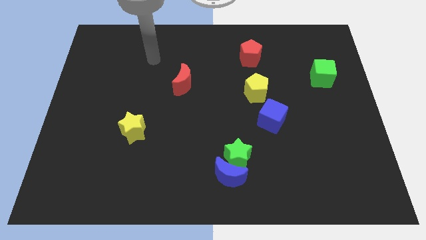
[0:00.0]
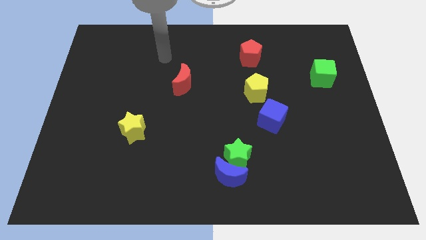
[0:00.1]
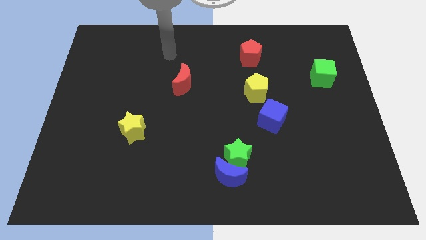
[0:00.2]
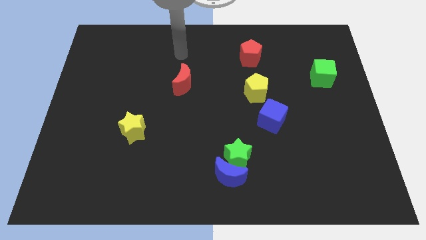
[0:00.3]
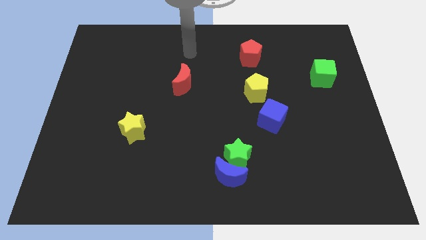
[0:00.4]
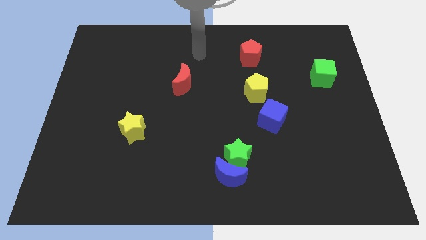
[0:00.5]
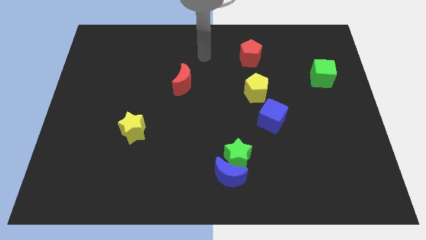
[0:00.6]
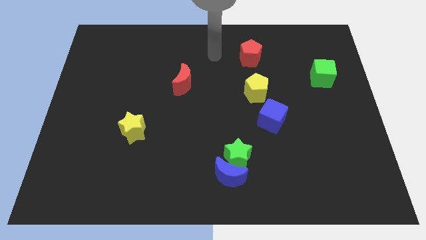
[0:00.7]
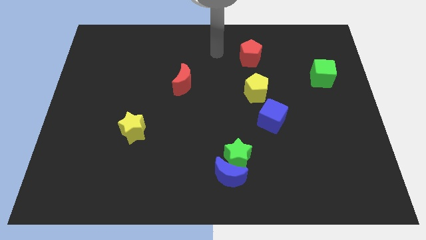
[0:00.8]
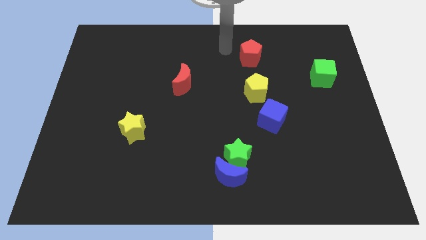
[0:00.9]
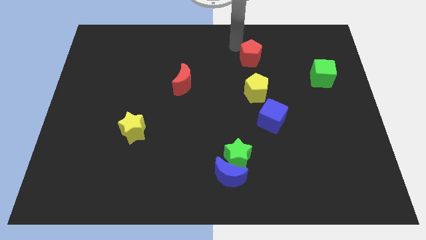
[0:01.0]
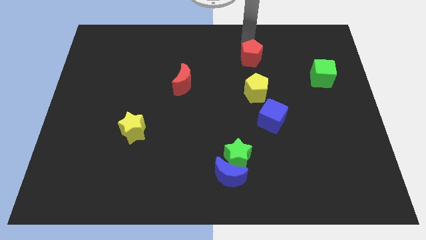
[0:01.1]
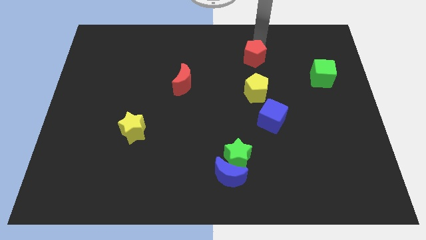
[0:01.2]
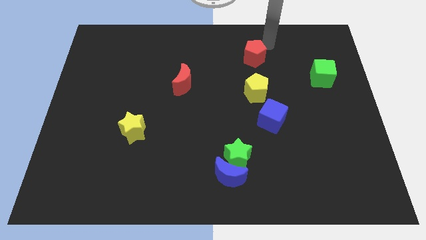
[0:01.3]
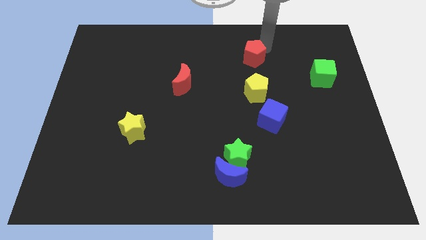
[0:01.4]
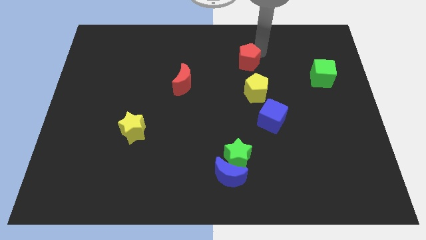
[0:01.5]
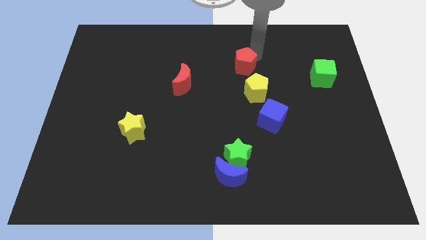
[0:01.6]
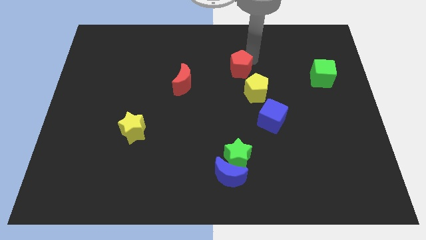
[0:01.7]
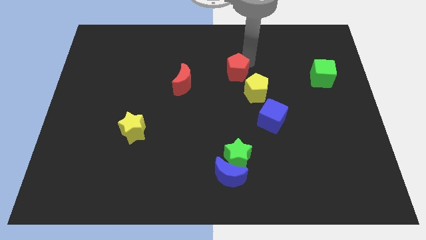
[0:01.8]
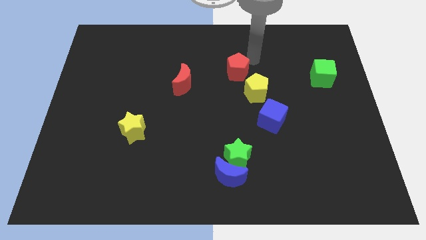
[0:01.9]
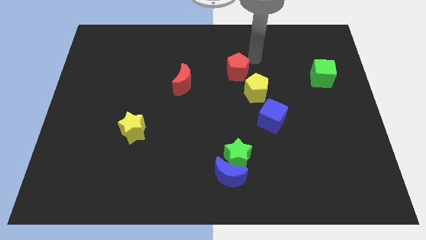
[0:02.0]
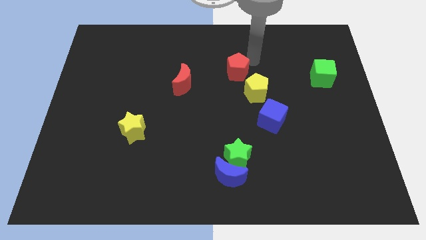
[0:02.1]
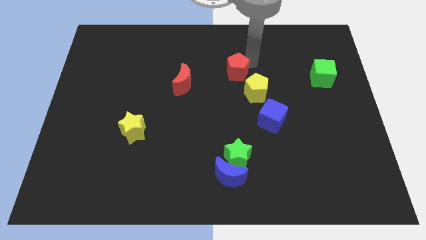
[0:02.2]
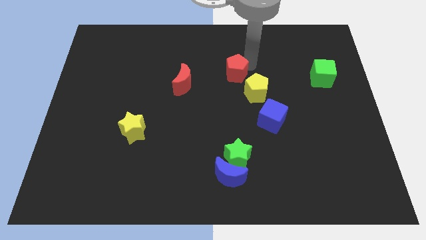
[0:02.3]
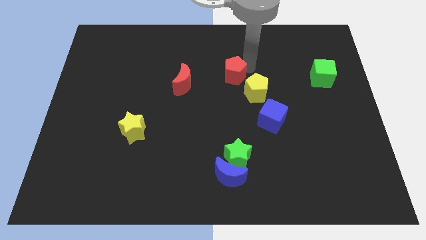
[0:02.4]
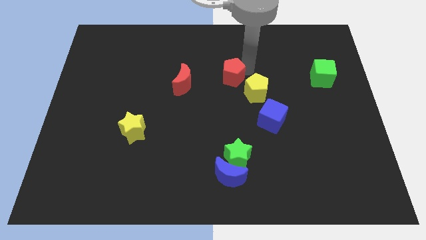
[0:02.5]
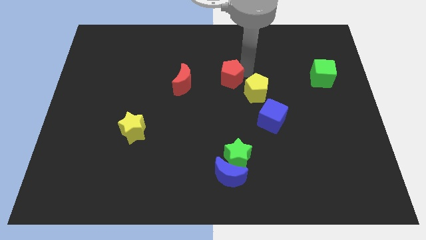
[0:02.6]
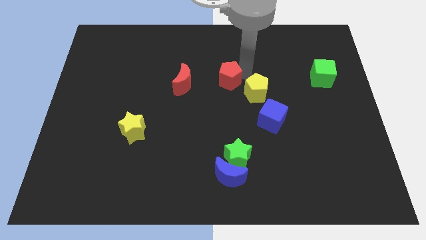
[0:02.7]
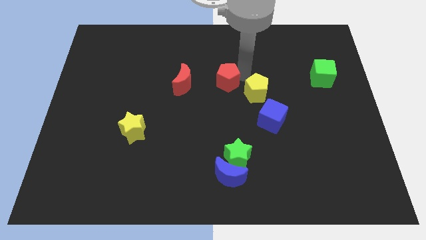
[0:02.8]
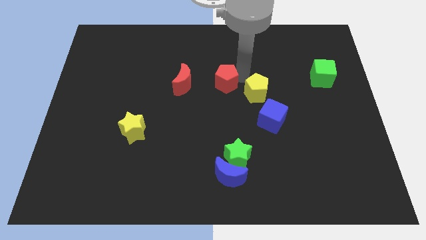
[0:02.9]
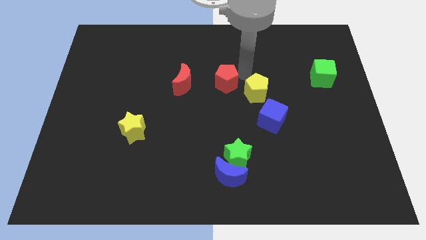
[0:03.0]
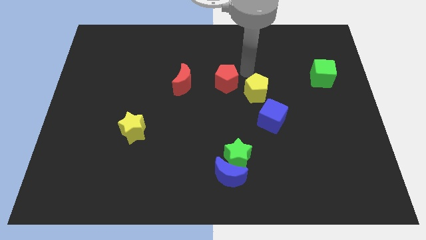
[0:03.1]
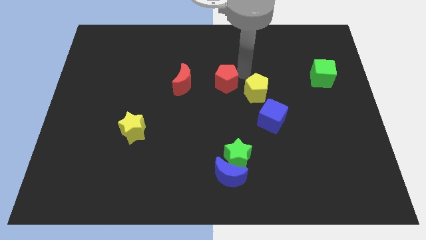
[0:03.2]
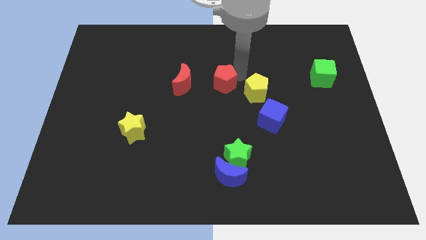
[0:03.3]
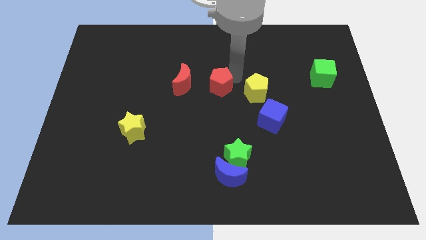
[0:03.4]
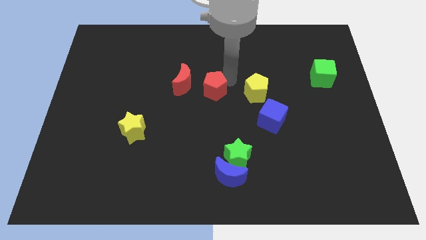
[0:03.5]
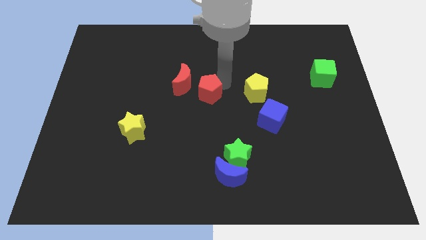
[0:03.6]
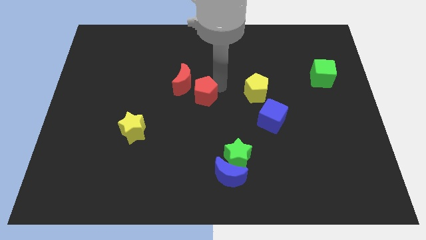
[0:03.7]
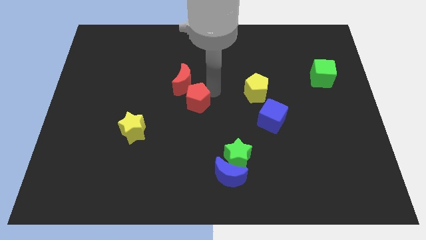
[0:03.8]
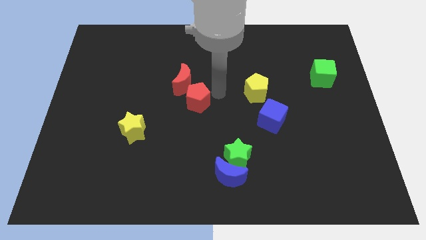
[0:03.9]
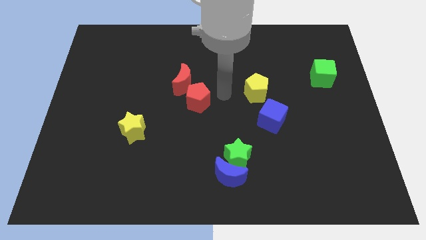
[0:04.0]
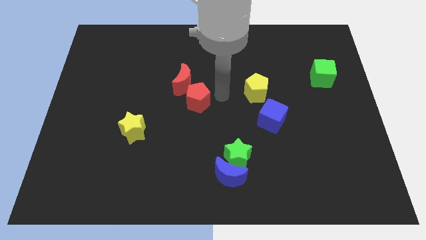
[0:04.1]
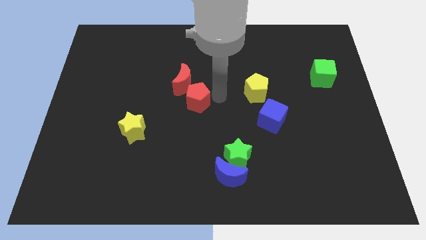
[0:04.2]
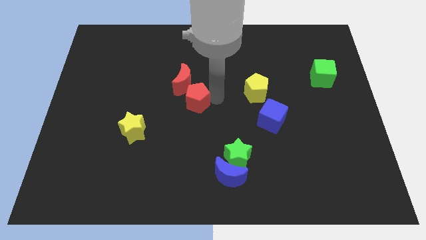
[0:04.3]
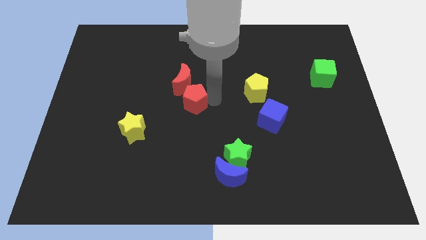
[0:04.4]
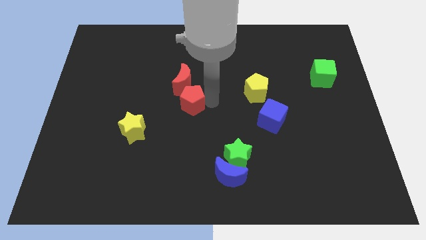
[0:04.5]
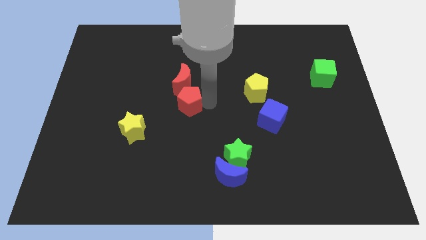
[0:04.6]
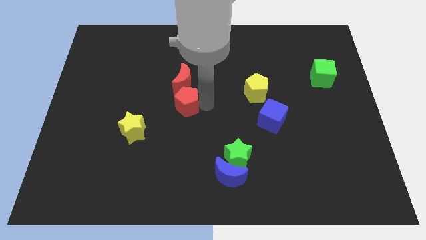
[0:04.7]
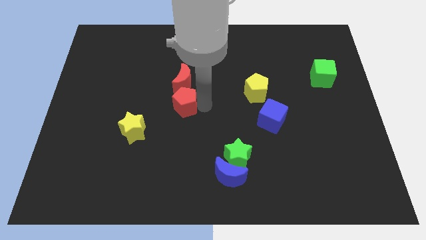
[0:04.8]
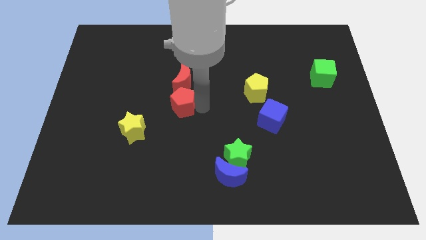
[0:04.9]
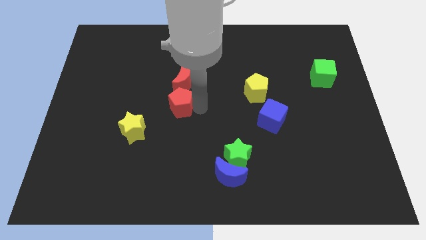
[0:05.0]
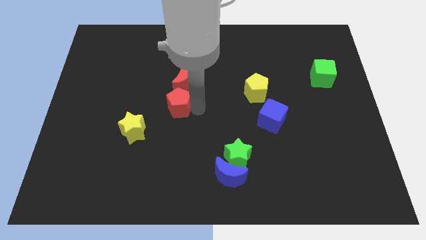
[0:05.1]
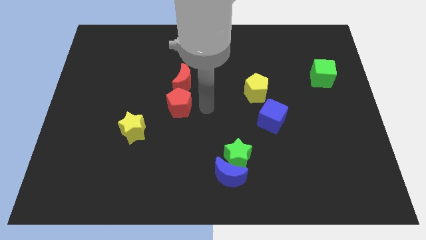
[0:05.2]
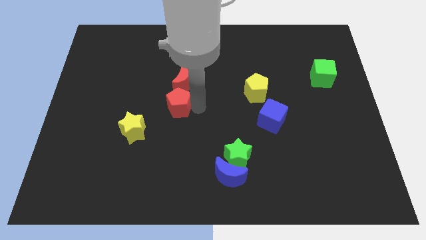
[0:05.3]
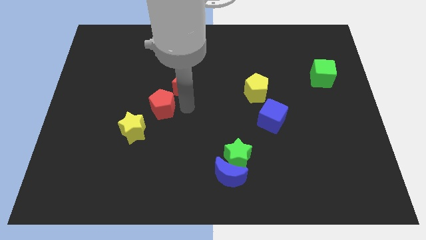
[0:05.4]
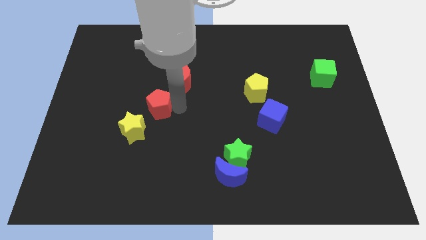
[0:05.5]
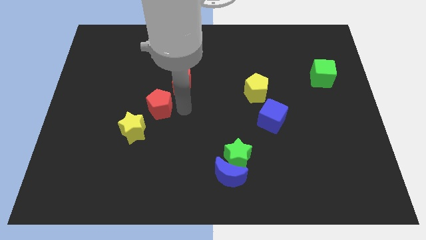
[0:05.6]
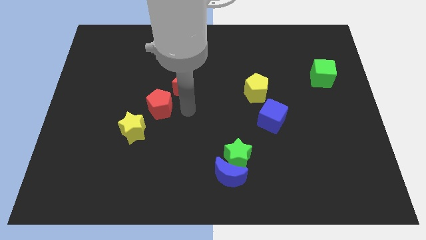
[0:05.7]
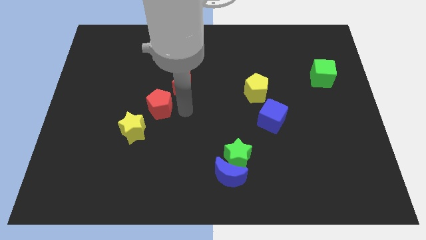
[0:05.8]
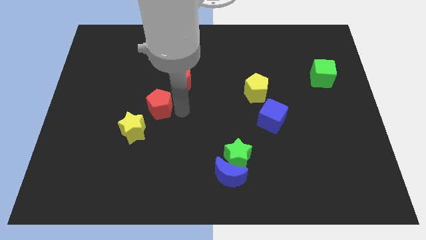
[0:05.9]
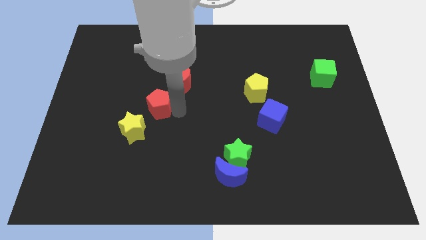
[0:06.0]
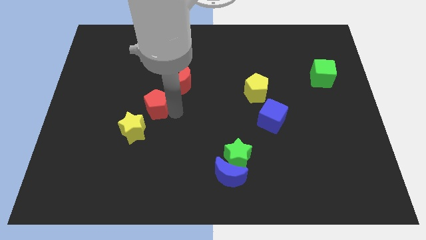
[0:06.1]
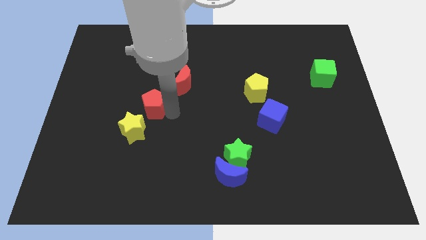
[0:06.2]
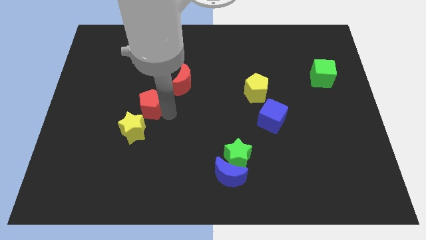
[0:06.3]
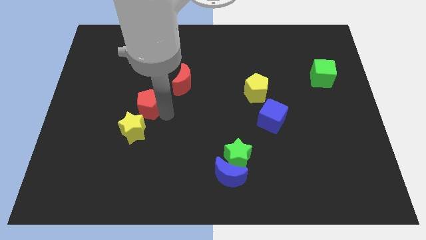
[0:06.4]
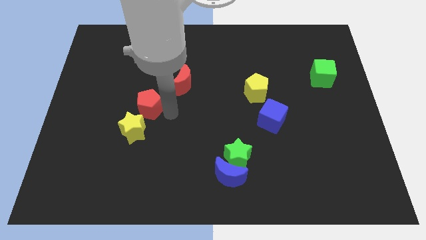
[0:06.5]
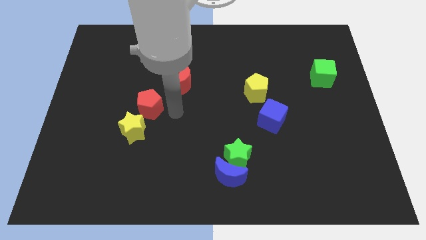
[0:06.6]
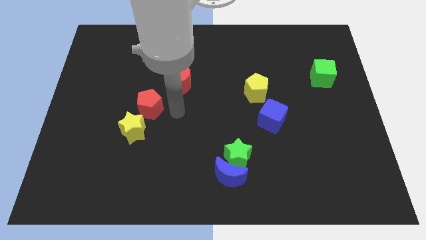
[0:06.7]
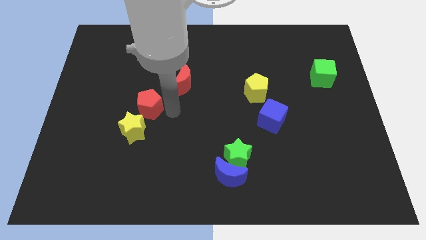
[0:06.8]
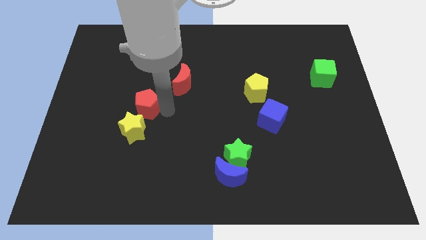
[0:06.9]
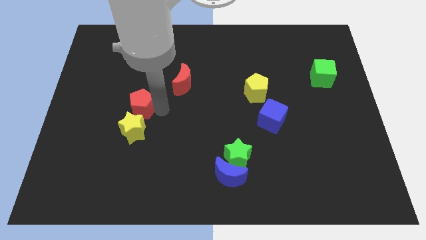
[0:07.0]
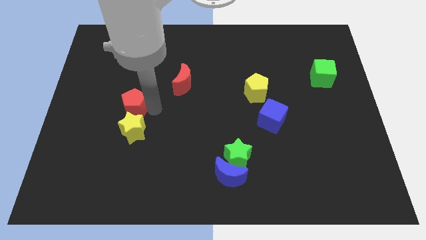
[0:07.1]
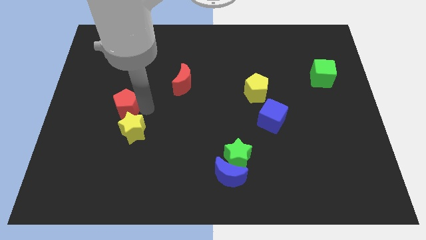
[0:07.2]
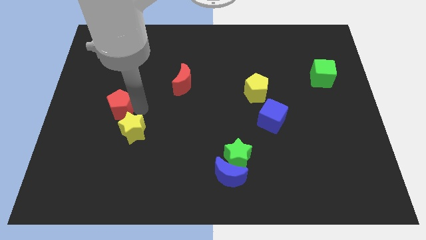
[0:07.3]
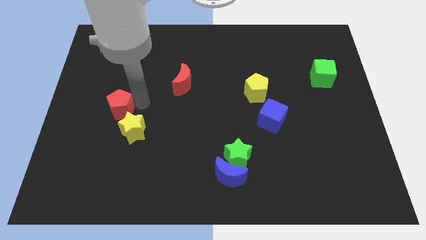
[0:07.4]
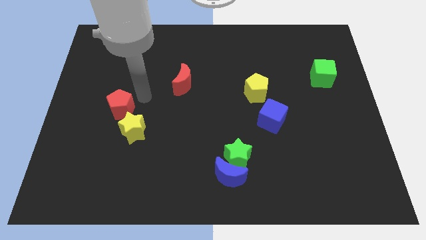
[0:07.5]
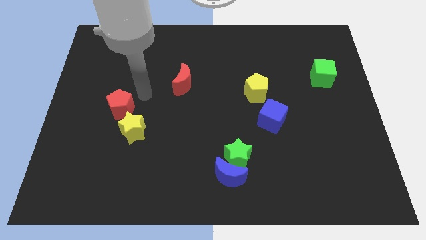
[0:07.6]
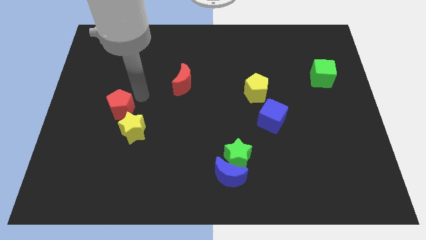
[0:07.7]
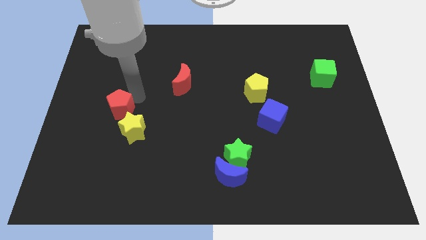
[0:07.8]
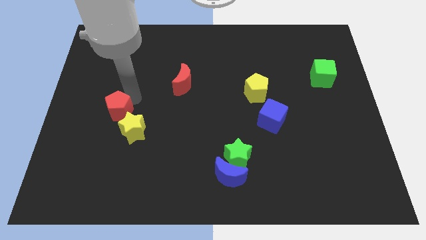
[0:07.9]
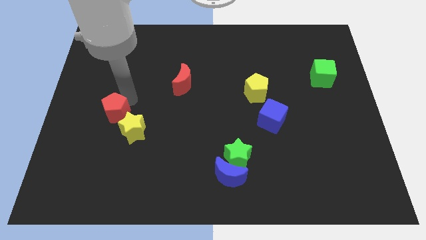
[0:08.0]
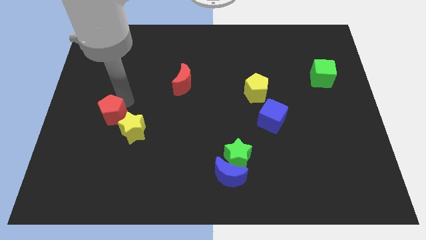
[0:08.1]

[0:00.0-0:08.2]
put the red pentagon left of the yellow star
